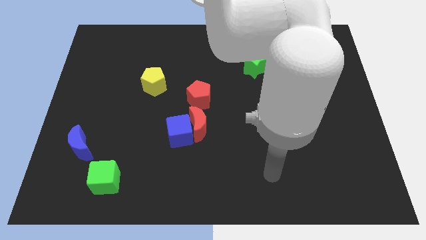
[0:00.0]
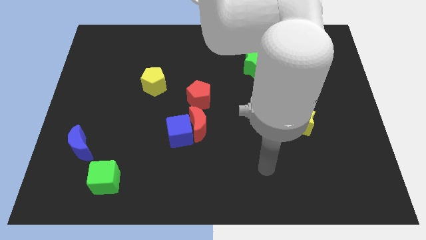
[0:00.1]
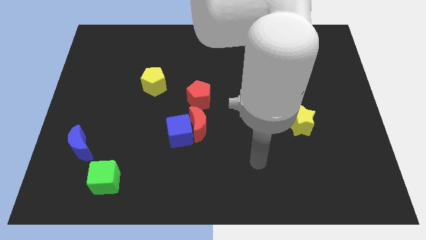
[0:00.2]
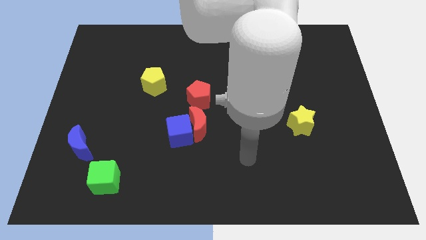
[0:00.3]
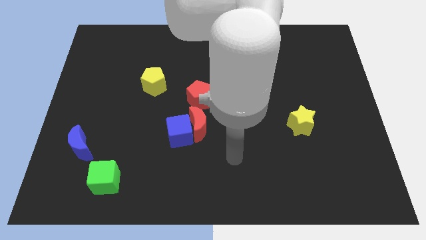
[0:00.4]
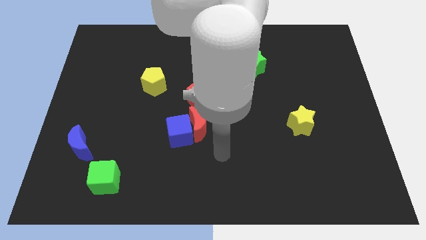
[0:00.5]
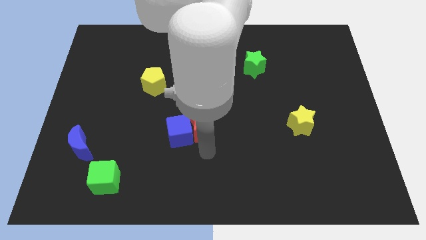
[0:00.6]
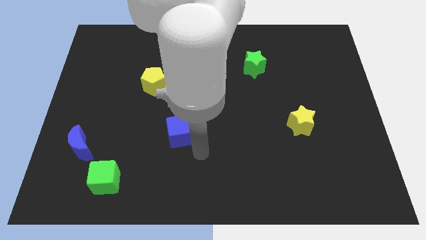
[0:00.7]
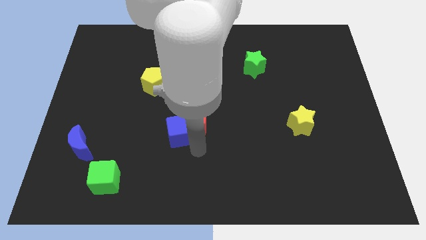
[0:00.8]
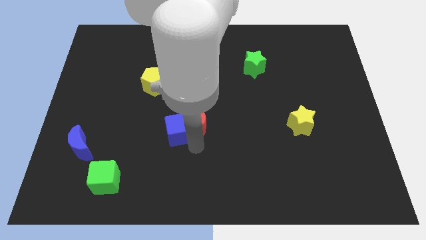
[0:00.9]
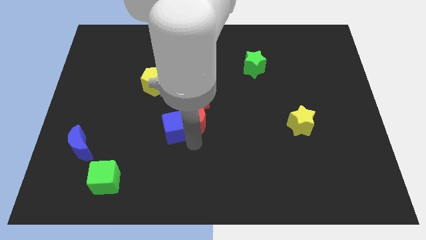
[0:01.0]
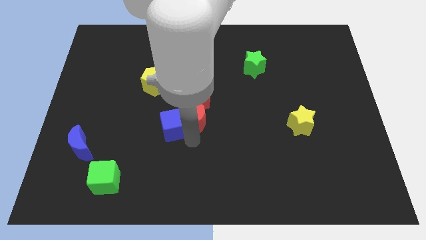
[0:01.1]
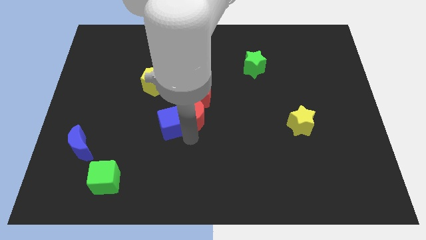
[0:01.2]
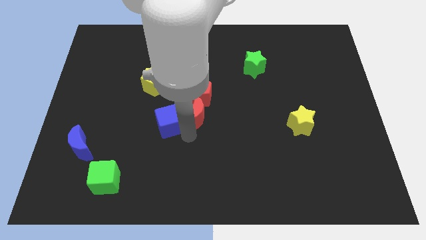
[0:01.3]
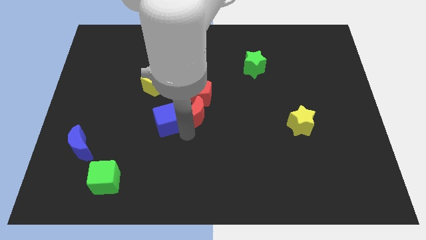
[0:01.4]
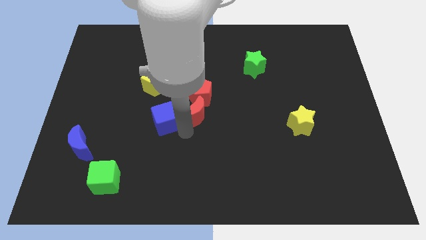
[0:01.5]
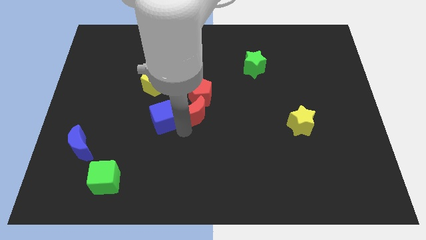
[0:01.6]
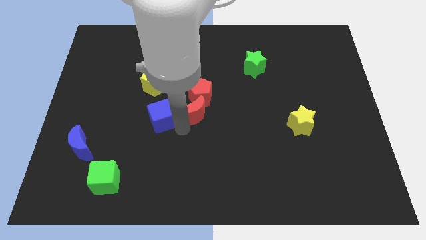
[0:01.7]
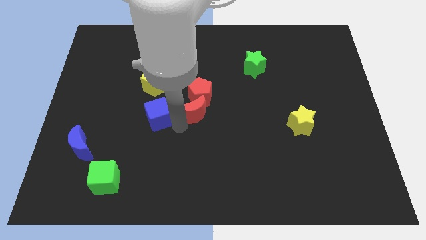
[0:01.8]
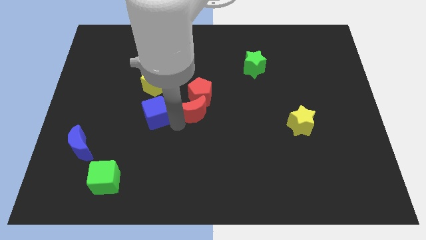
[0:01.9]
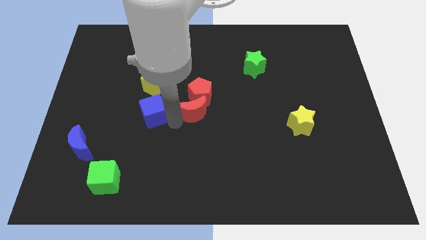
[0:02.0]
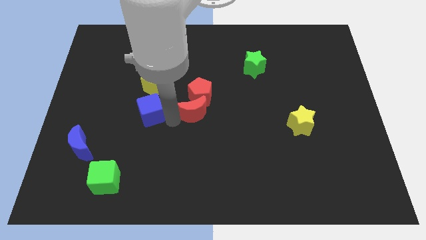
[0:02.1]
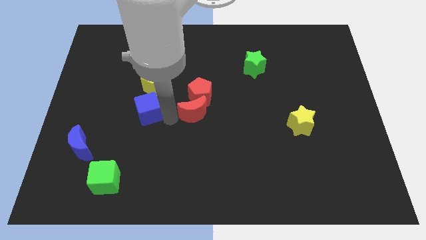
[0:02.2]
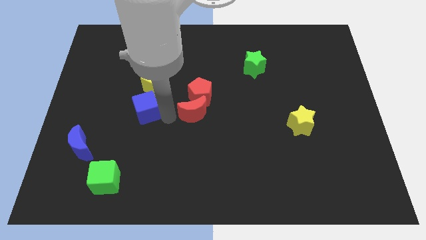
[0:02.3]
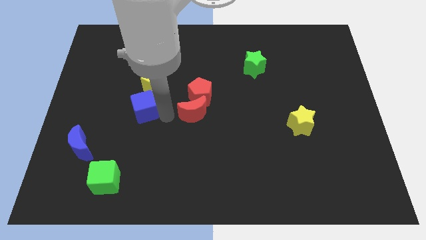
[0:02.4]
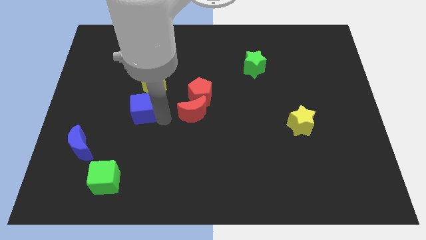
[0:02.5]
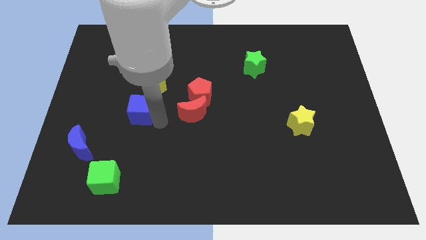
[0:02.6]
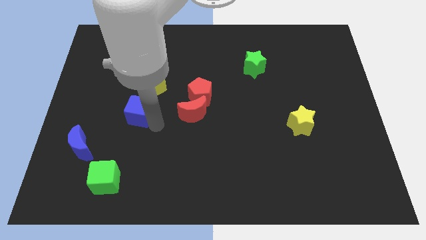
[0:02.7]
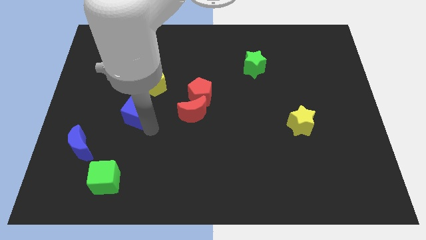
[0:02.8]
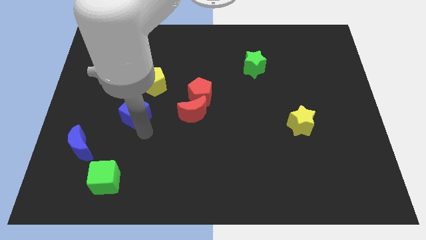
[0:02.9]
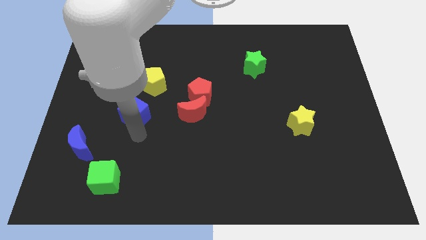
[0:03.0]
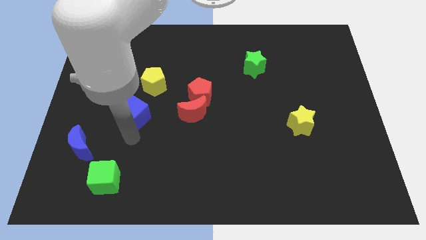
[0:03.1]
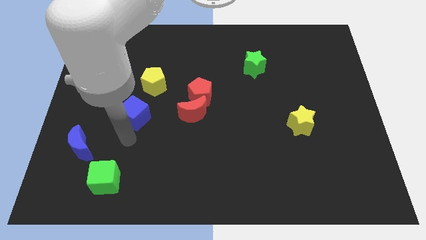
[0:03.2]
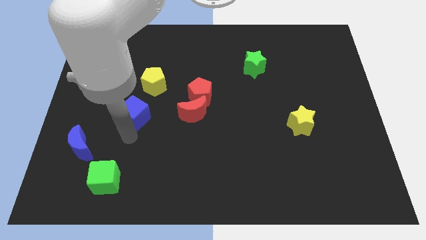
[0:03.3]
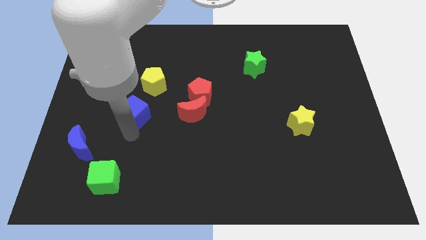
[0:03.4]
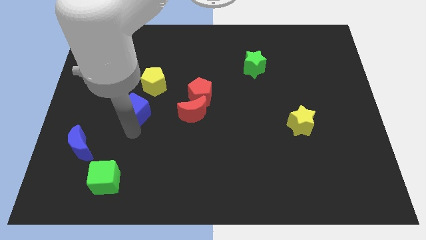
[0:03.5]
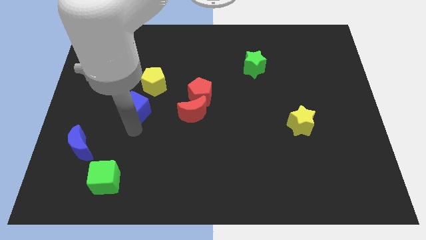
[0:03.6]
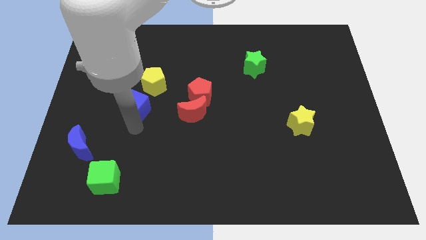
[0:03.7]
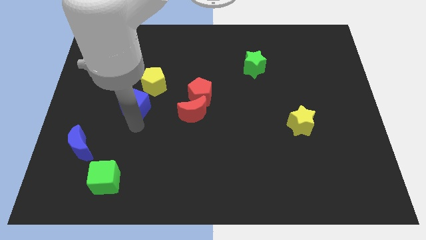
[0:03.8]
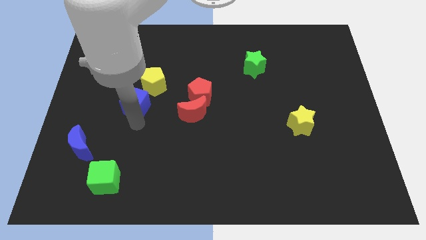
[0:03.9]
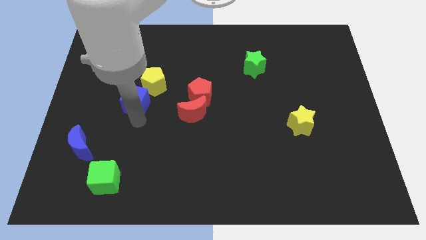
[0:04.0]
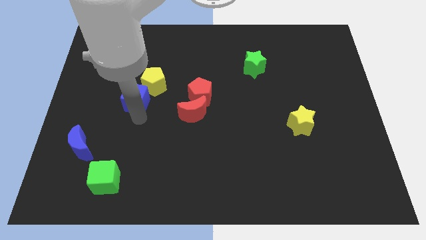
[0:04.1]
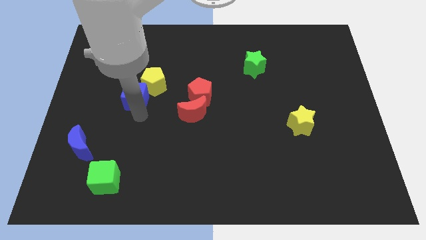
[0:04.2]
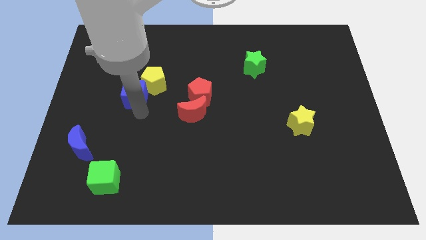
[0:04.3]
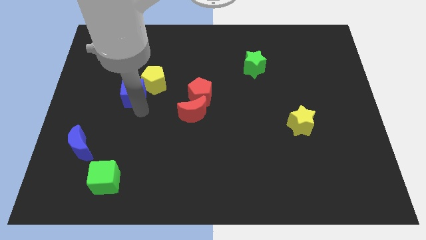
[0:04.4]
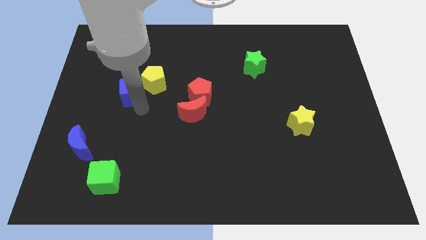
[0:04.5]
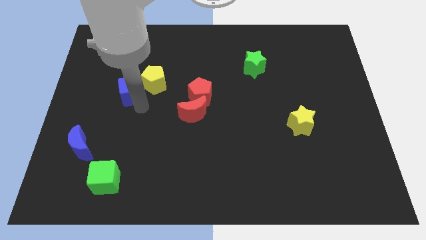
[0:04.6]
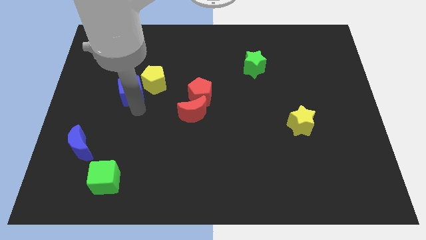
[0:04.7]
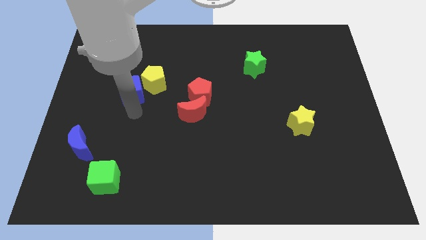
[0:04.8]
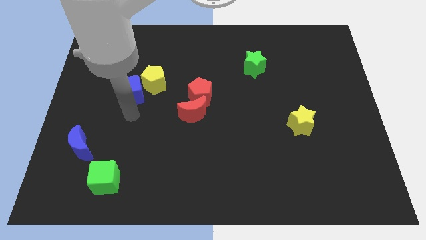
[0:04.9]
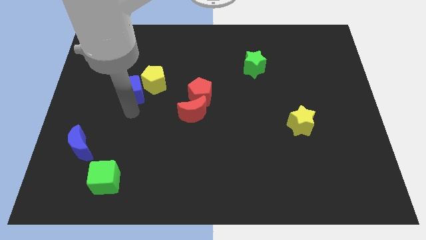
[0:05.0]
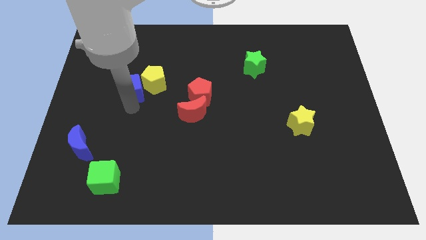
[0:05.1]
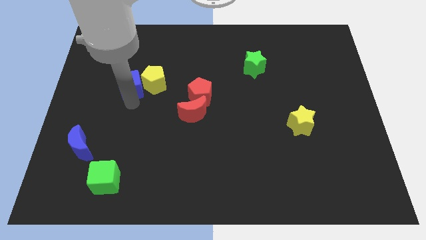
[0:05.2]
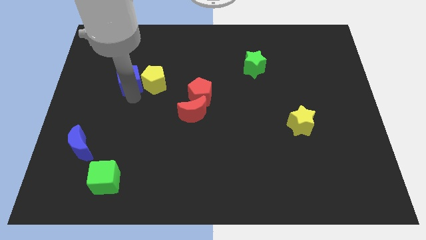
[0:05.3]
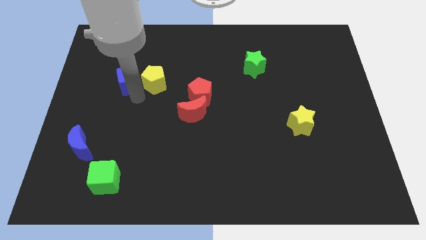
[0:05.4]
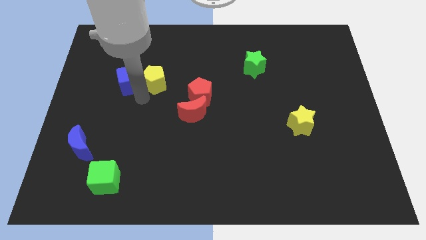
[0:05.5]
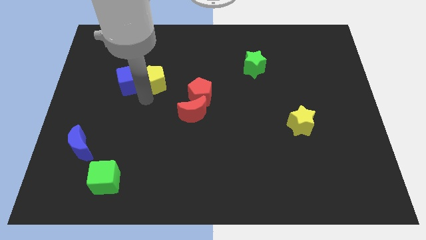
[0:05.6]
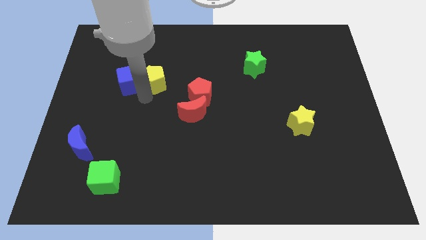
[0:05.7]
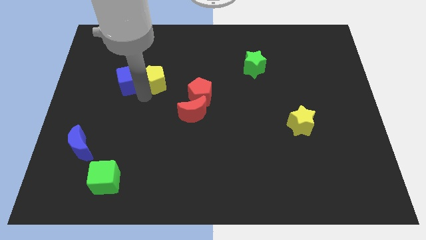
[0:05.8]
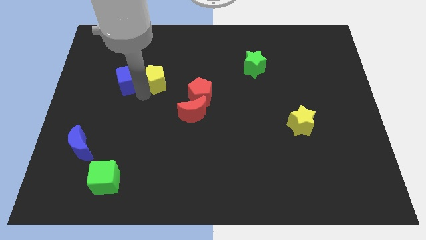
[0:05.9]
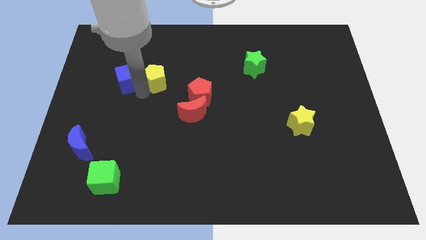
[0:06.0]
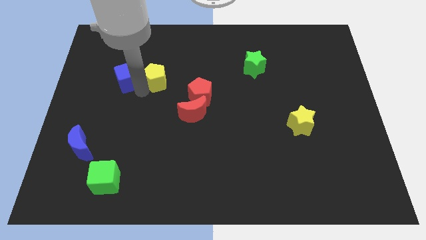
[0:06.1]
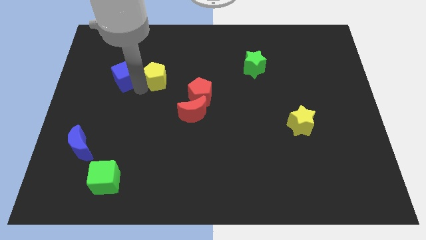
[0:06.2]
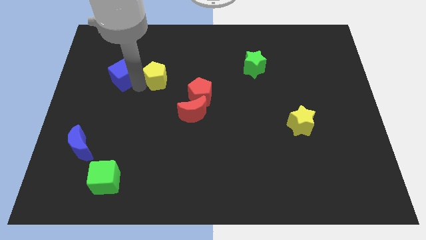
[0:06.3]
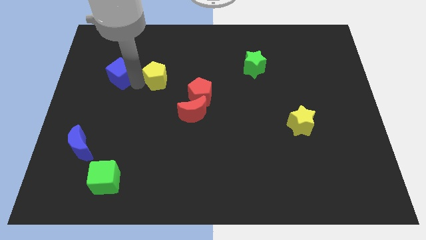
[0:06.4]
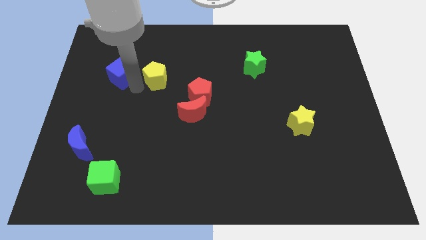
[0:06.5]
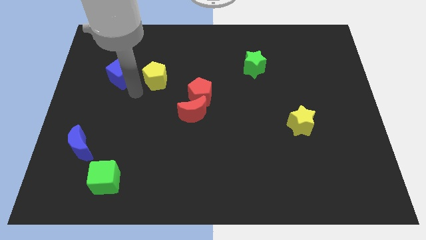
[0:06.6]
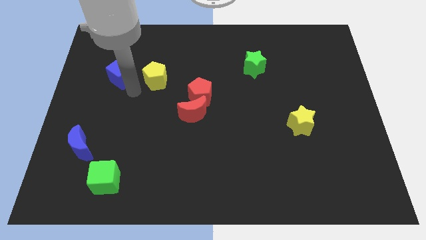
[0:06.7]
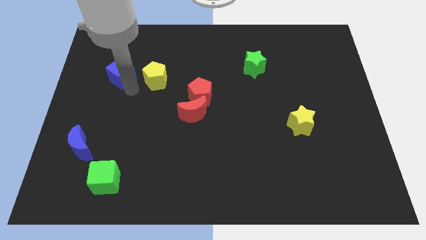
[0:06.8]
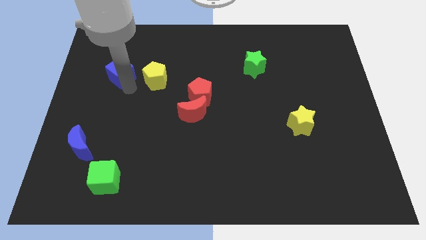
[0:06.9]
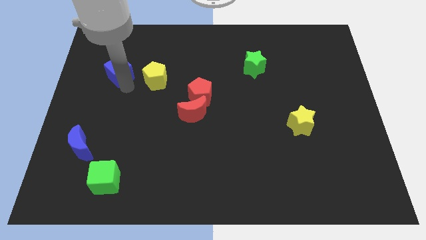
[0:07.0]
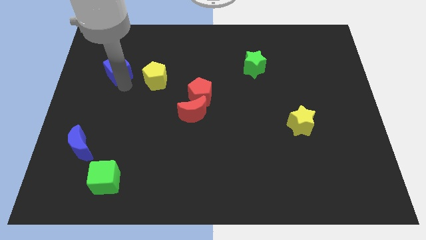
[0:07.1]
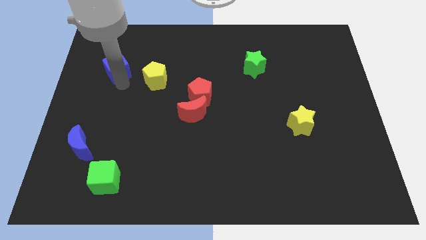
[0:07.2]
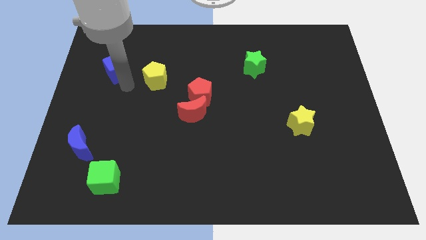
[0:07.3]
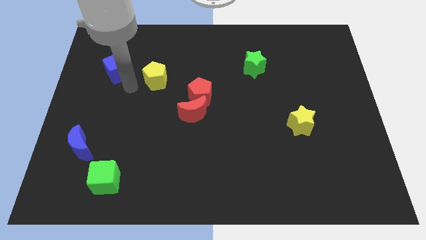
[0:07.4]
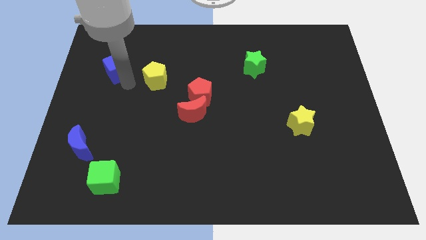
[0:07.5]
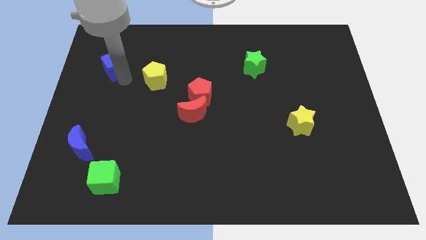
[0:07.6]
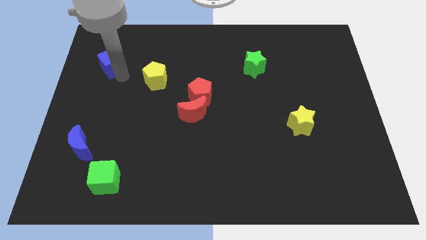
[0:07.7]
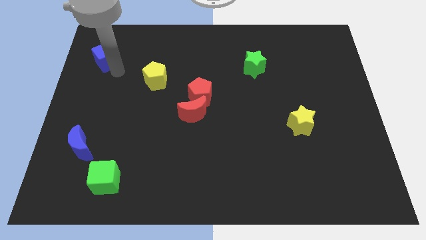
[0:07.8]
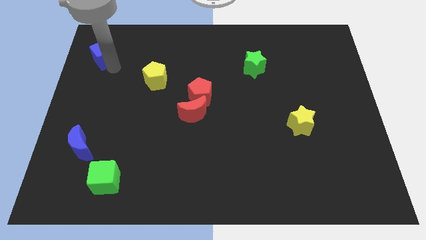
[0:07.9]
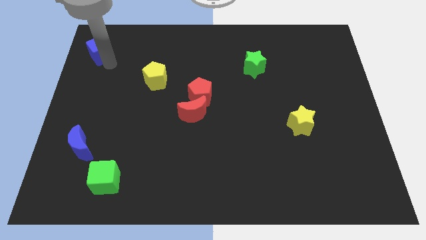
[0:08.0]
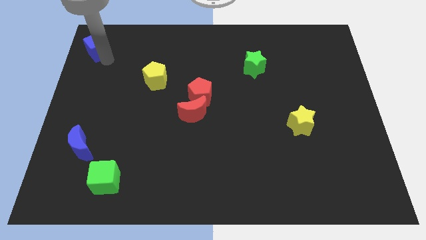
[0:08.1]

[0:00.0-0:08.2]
put the blue cube to the top left corner
